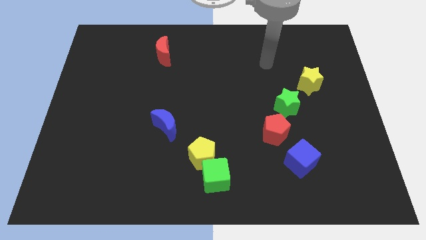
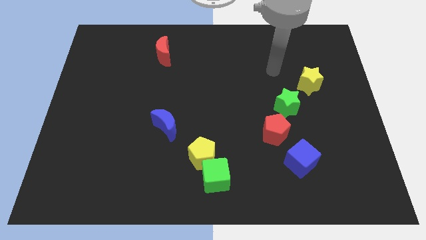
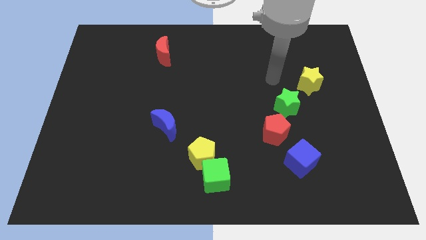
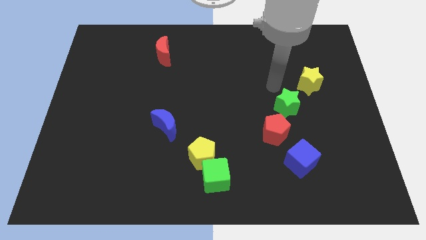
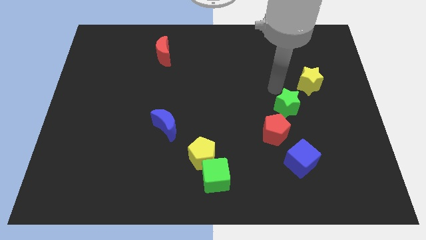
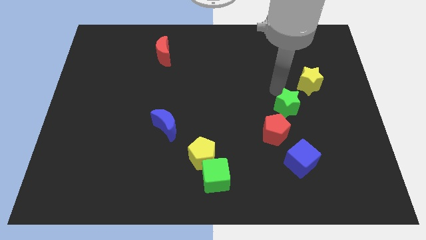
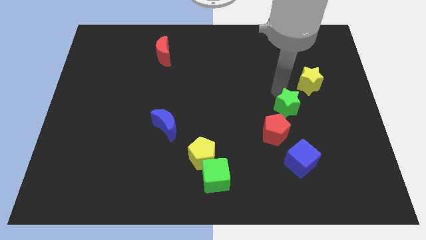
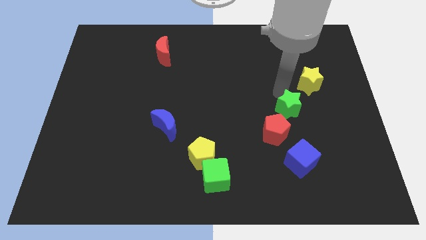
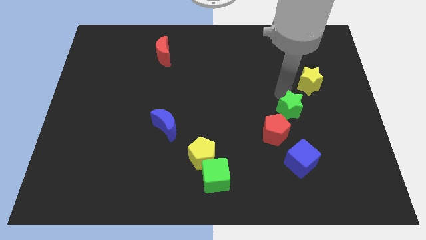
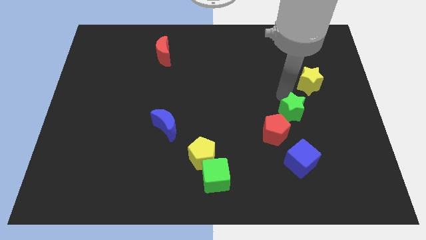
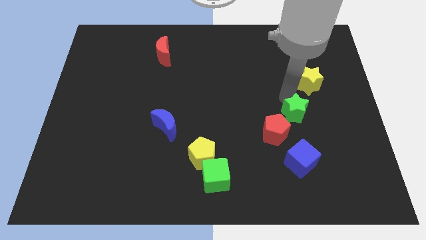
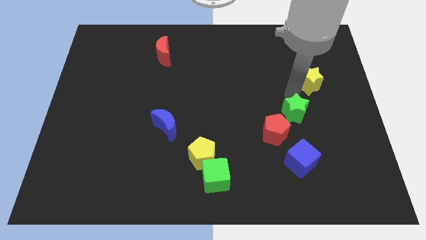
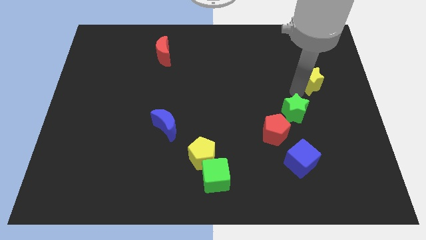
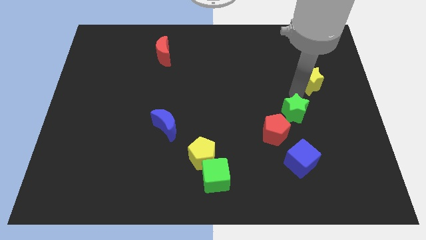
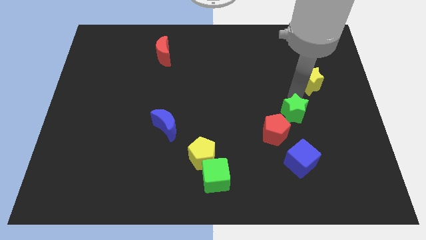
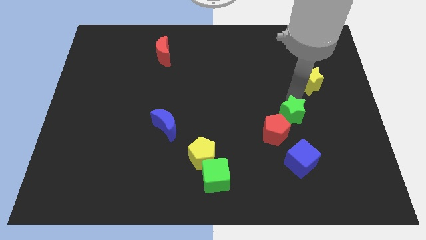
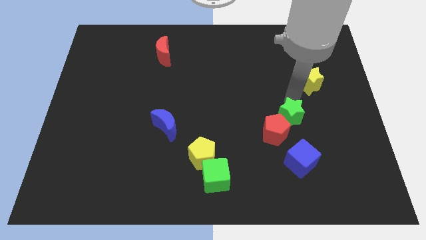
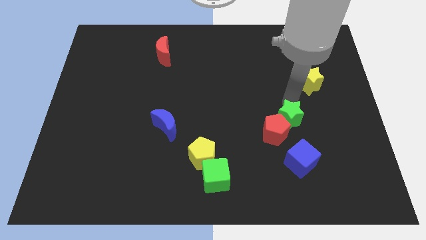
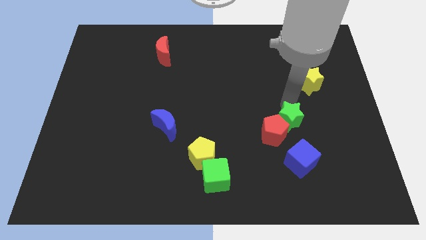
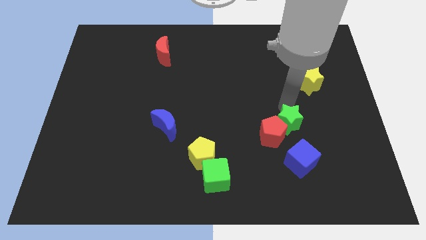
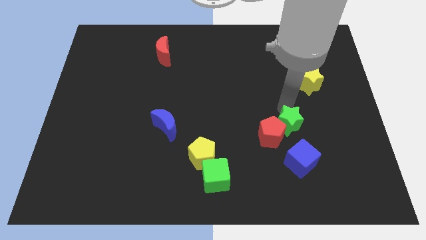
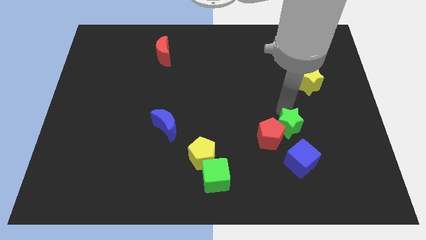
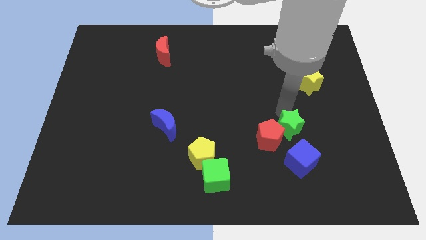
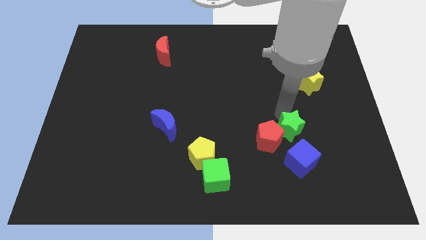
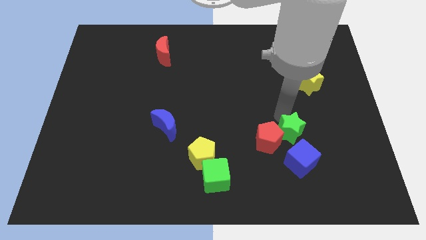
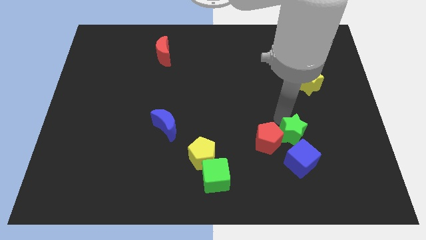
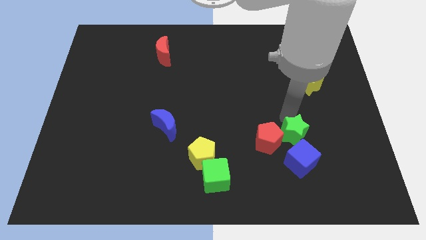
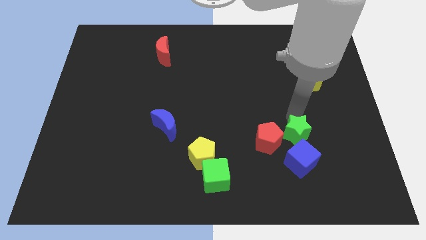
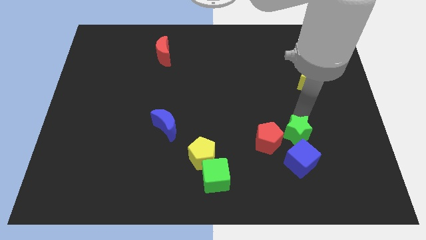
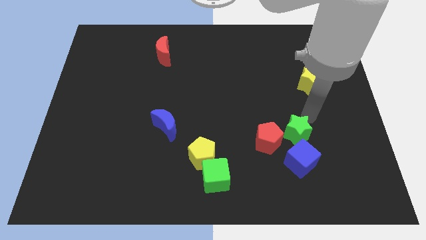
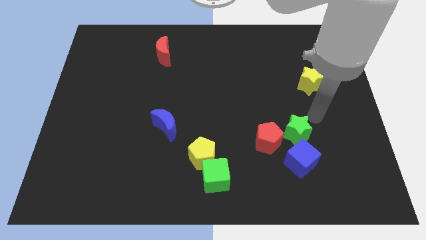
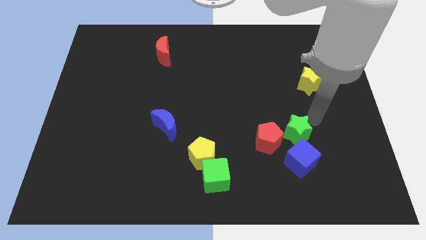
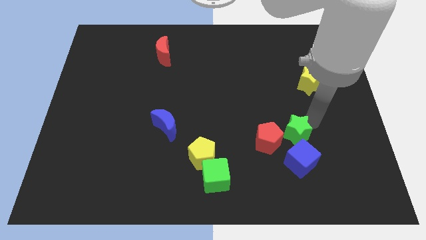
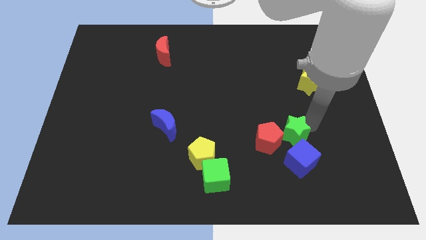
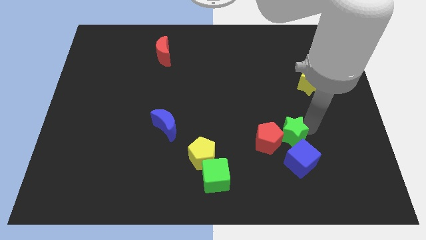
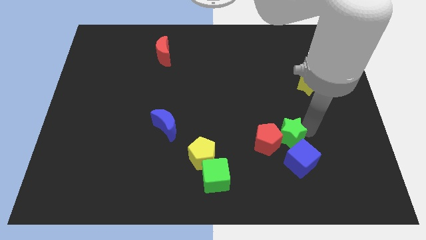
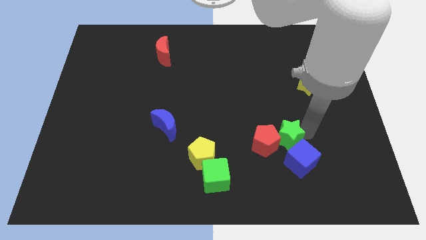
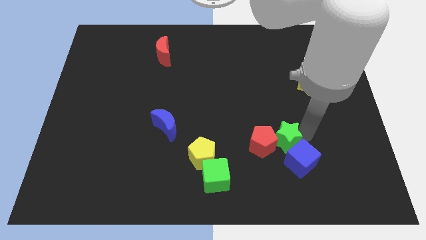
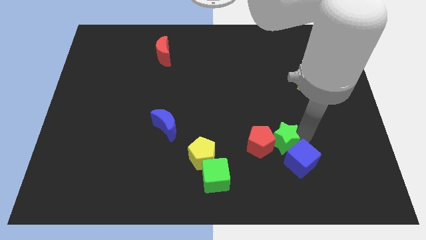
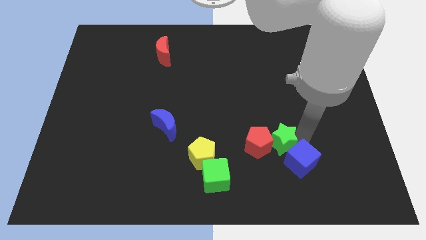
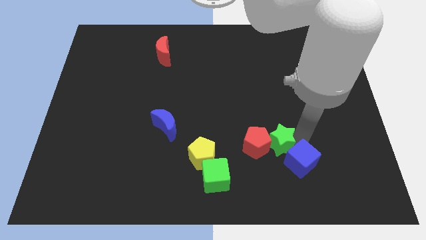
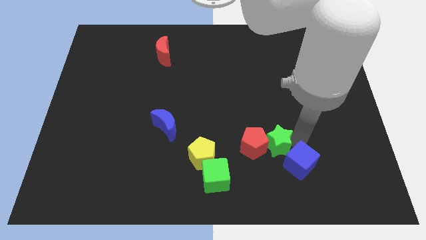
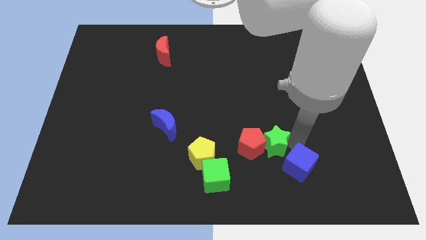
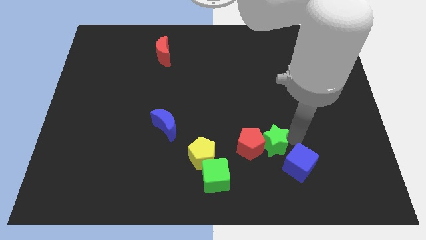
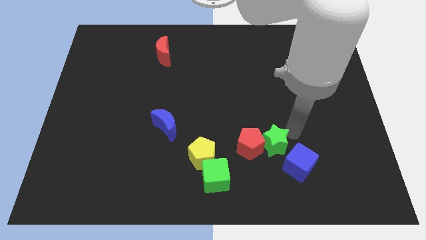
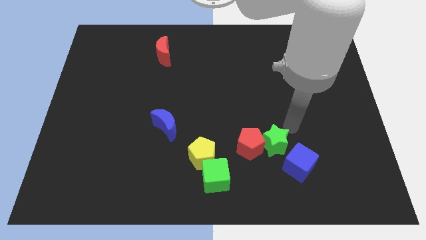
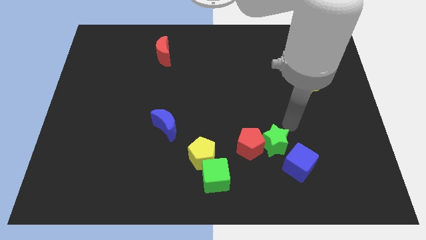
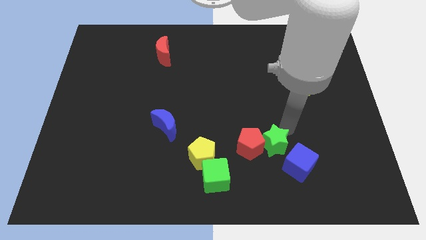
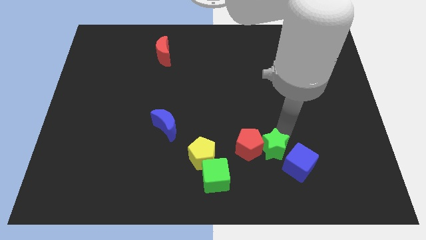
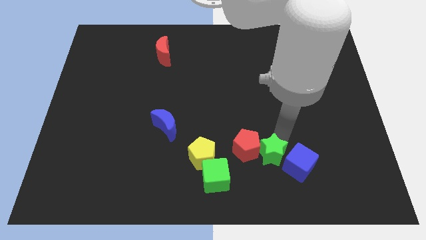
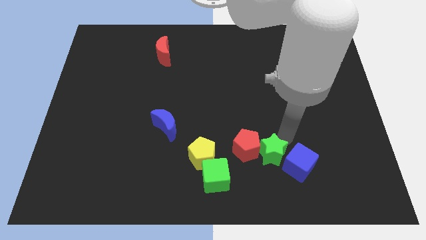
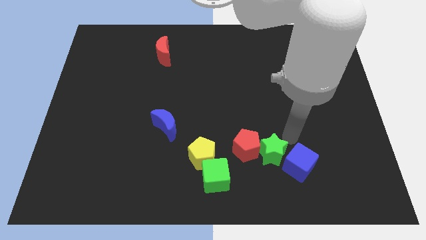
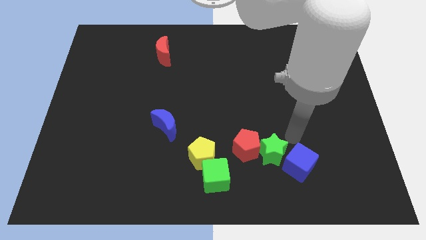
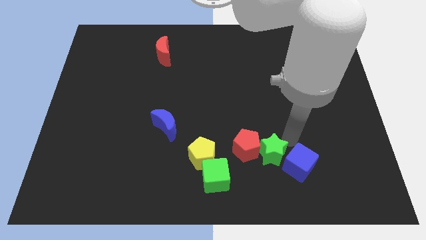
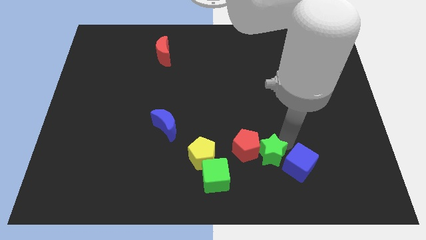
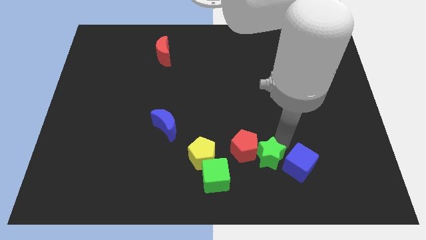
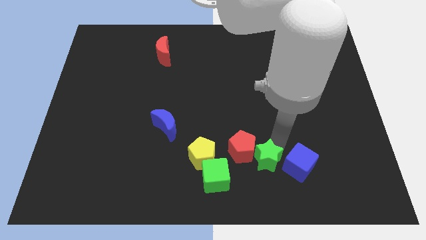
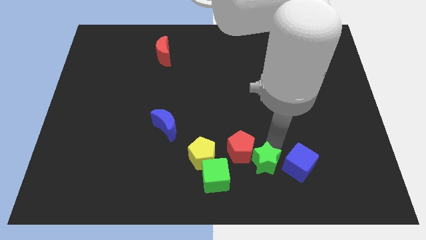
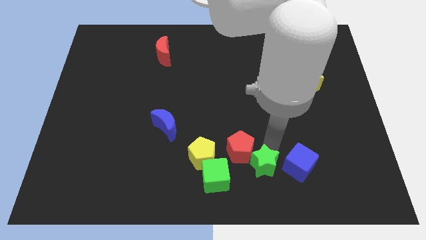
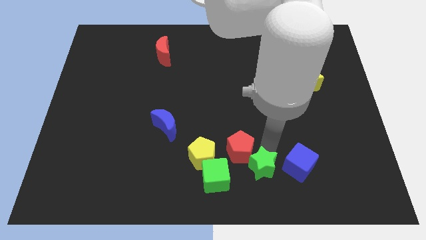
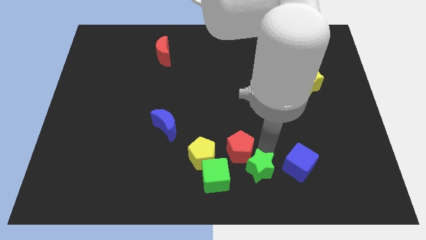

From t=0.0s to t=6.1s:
move the green star to the bottom

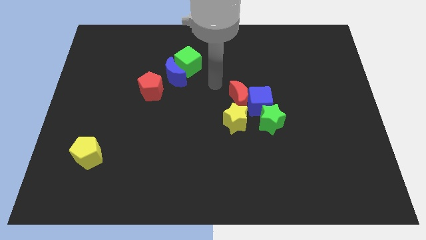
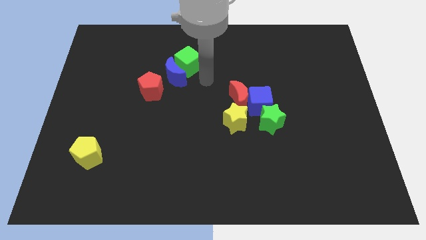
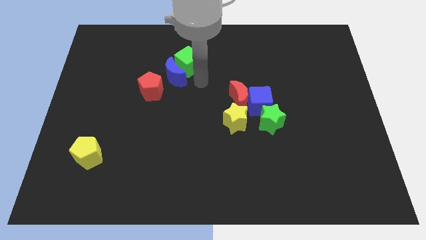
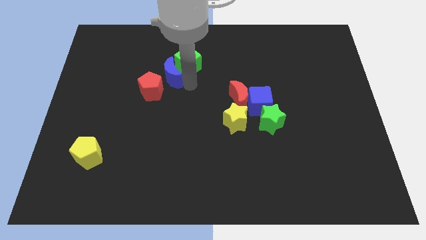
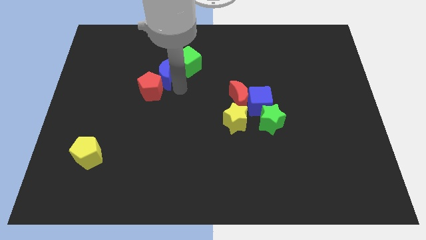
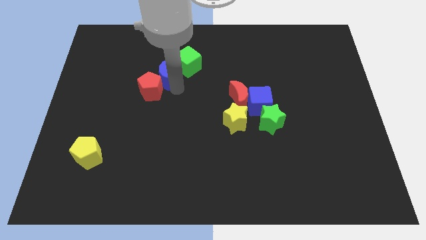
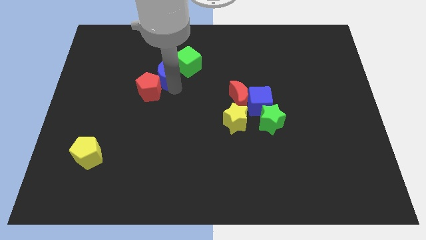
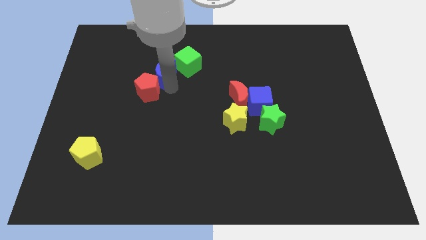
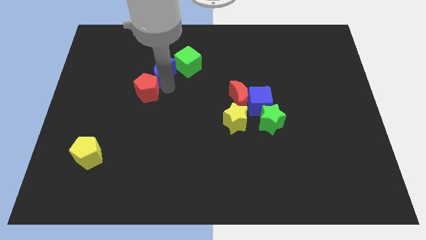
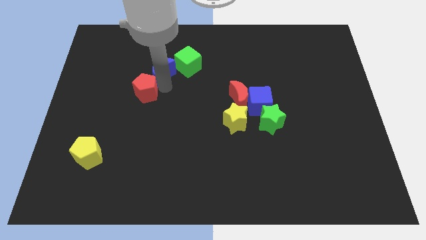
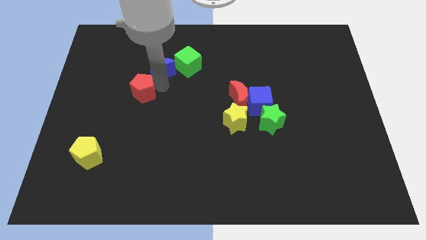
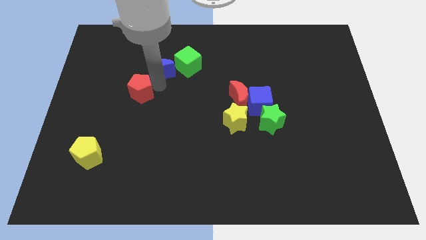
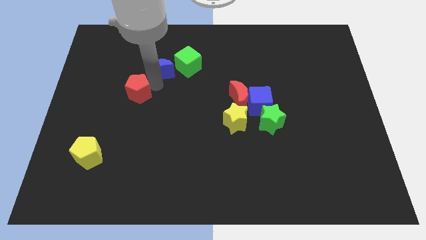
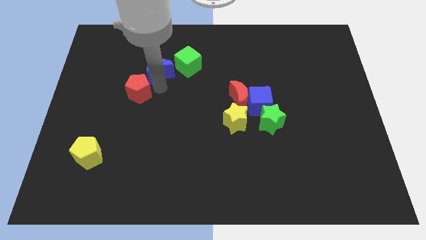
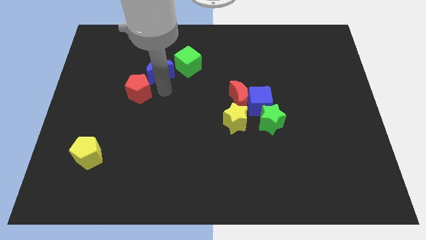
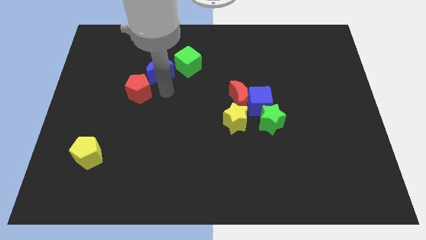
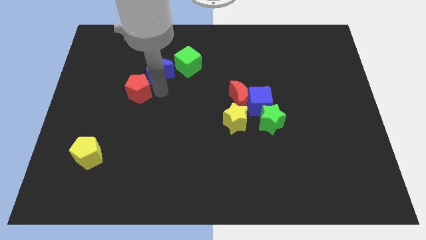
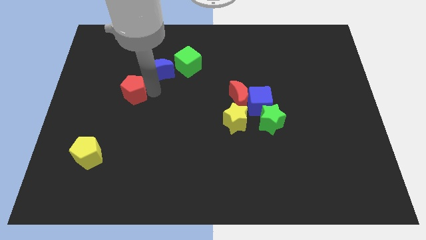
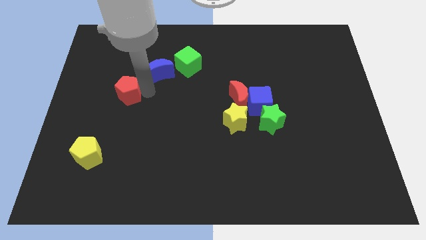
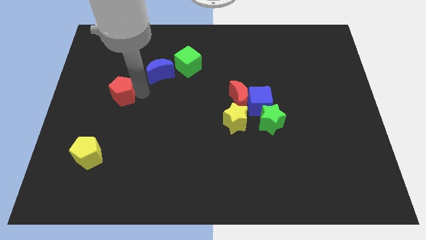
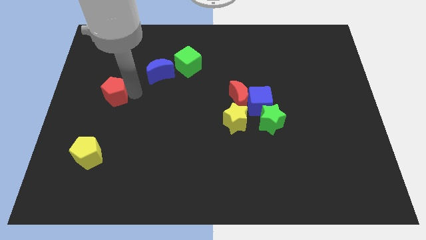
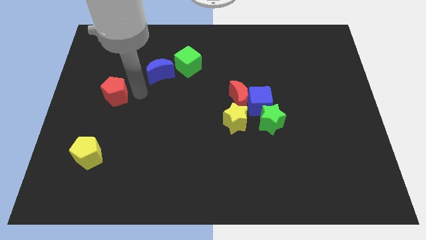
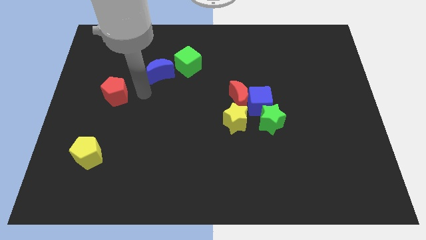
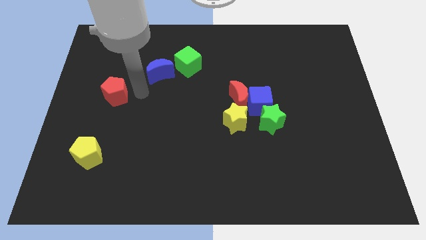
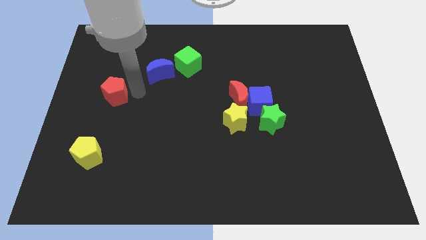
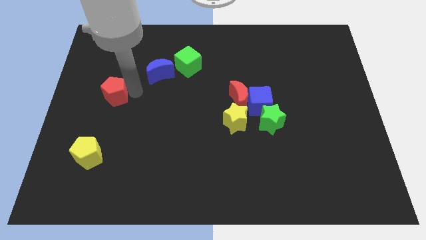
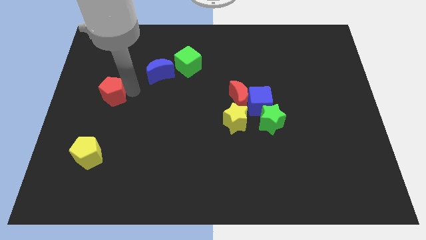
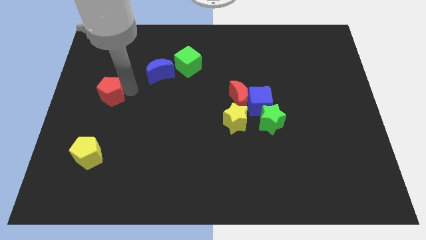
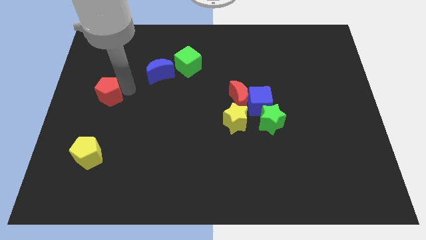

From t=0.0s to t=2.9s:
put the red pentagon to the center left
